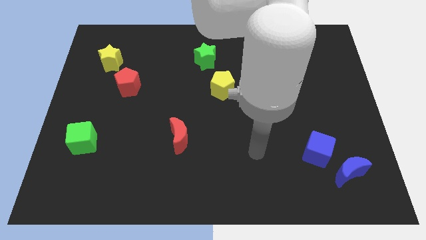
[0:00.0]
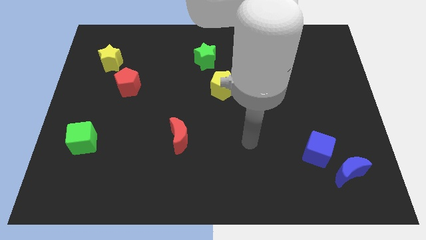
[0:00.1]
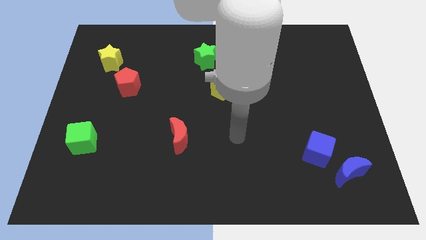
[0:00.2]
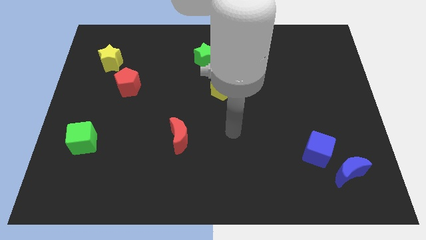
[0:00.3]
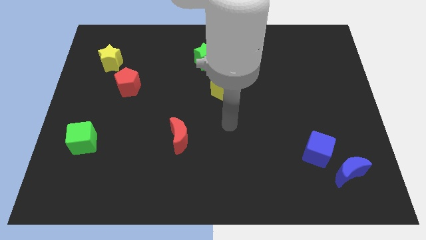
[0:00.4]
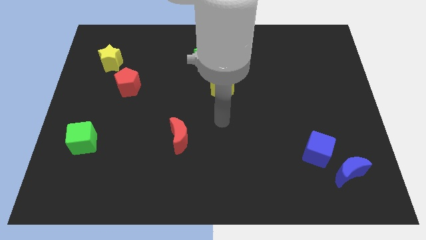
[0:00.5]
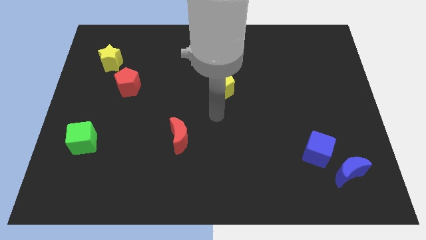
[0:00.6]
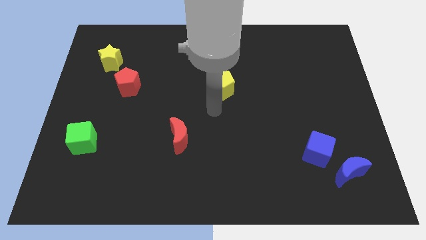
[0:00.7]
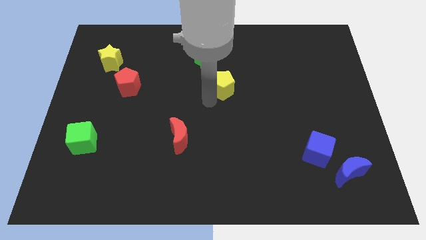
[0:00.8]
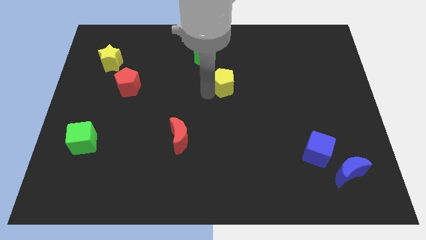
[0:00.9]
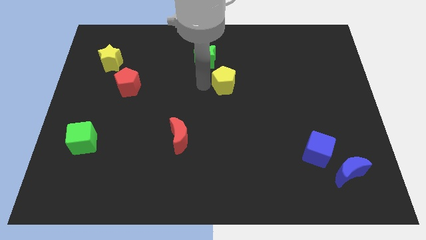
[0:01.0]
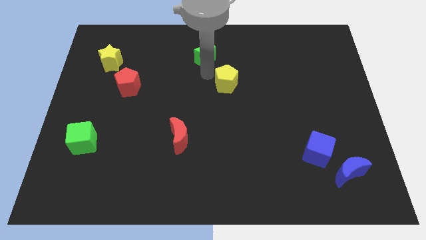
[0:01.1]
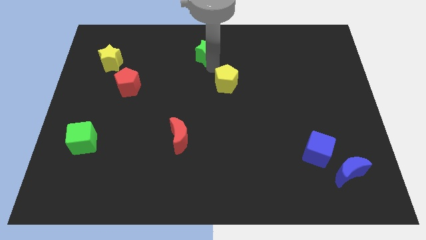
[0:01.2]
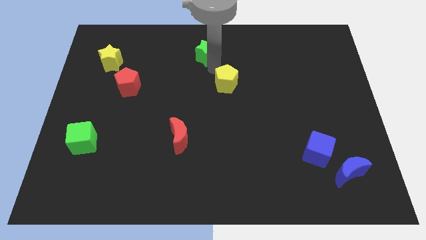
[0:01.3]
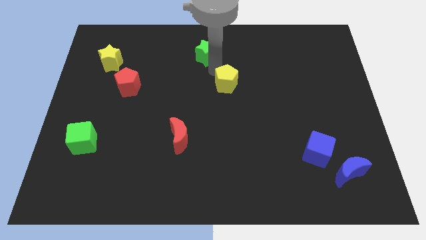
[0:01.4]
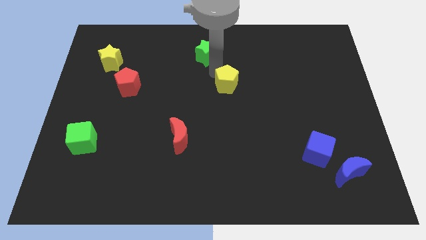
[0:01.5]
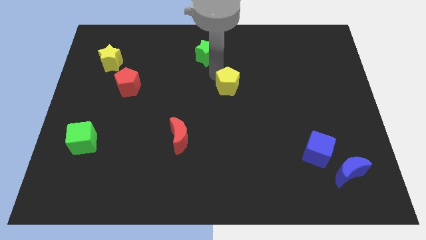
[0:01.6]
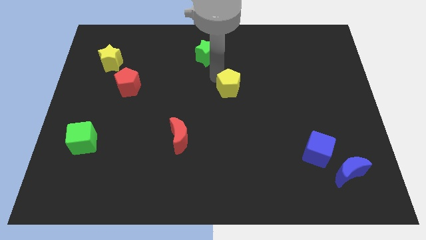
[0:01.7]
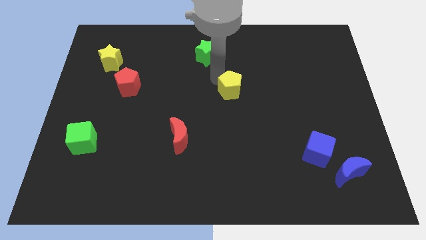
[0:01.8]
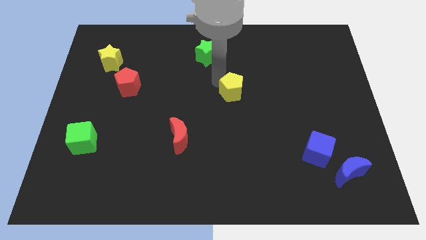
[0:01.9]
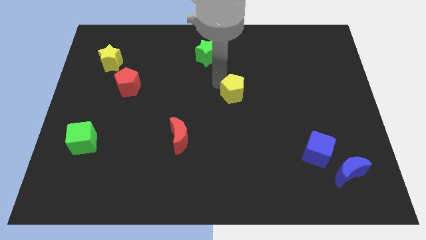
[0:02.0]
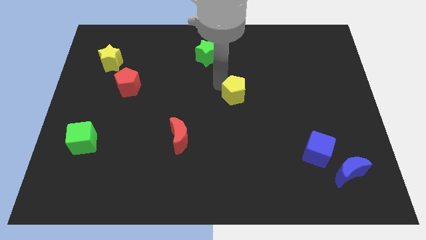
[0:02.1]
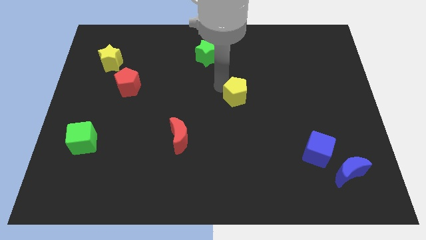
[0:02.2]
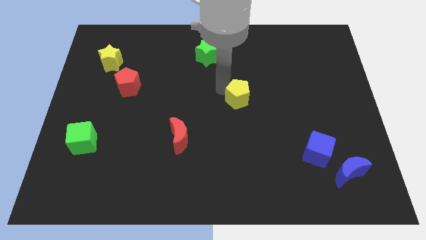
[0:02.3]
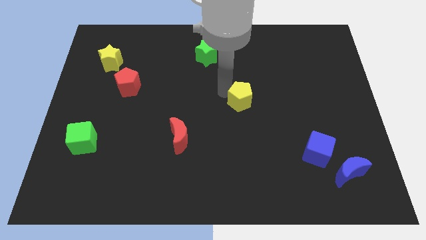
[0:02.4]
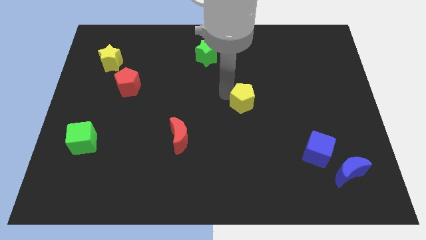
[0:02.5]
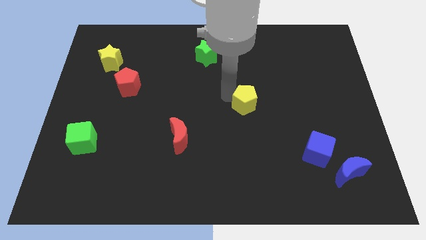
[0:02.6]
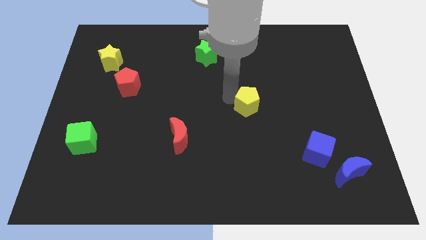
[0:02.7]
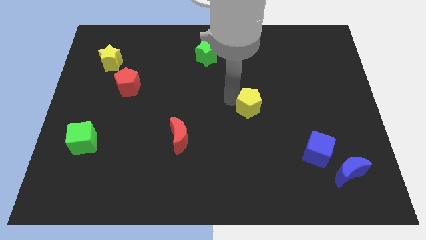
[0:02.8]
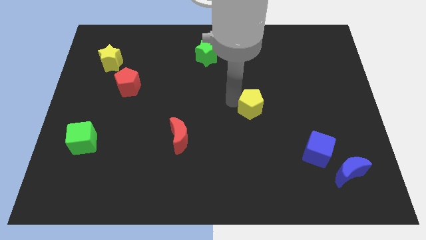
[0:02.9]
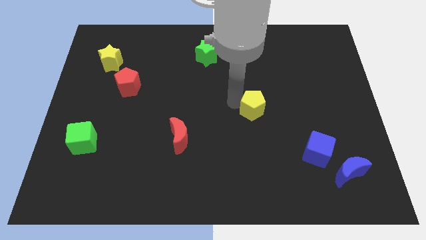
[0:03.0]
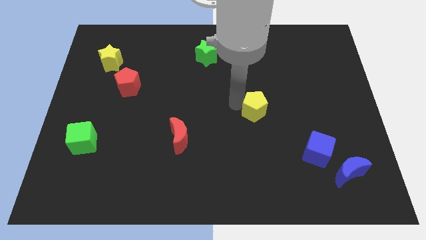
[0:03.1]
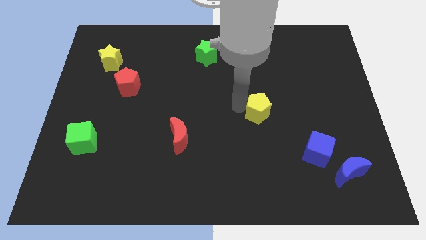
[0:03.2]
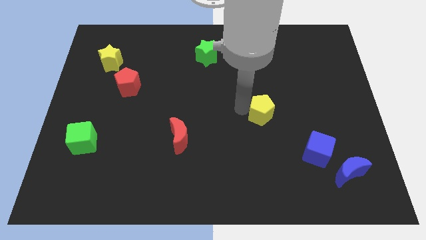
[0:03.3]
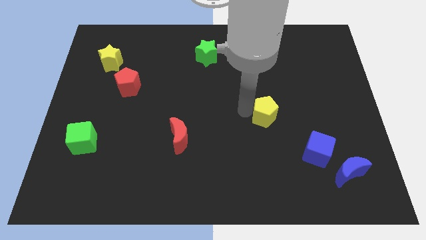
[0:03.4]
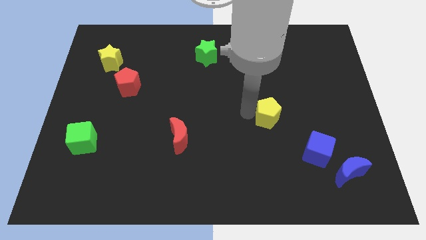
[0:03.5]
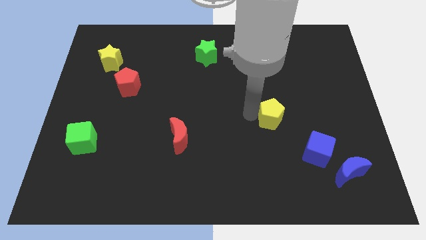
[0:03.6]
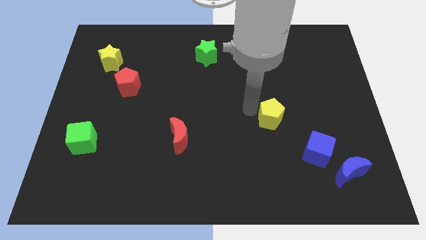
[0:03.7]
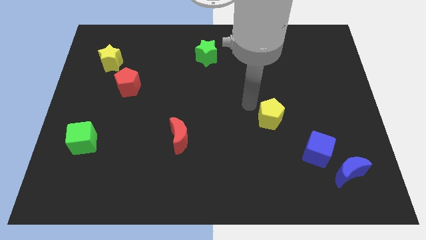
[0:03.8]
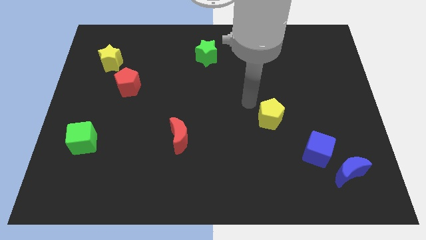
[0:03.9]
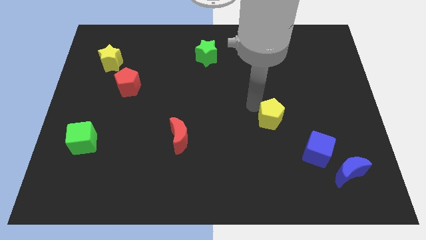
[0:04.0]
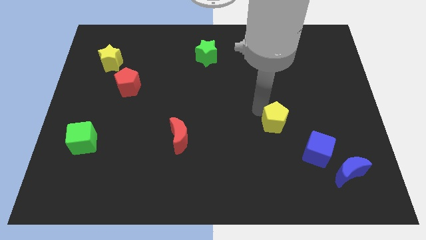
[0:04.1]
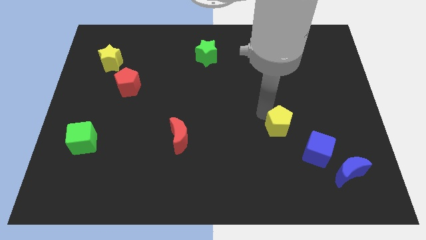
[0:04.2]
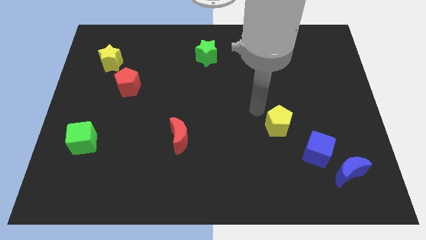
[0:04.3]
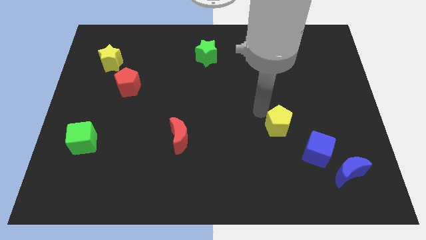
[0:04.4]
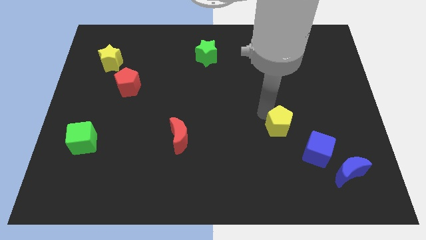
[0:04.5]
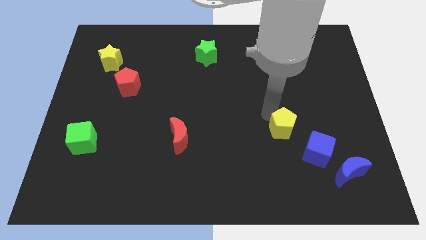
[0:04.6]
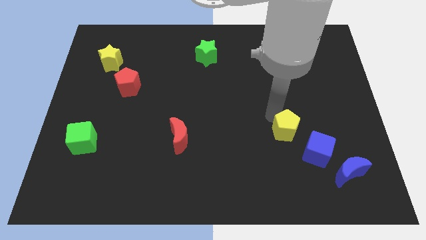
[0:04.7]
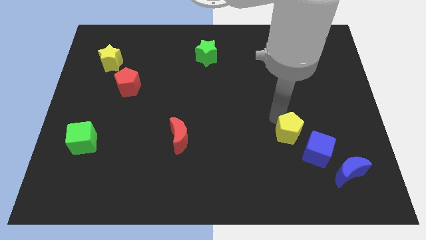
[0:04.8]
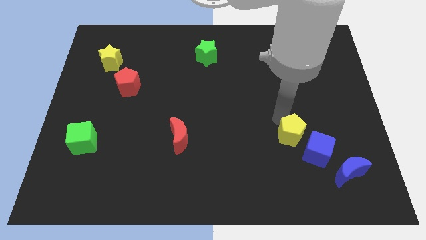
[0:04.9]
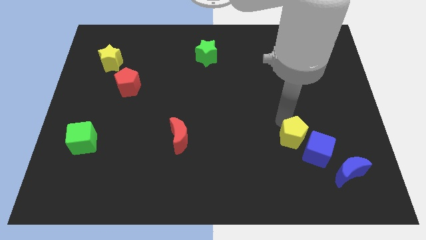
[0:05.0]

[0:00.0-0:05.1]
slide the yellow pentagon towards the blue cube

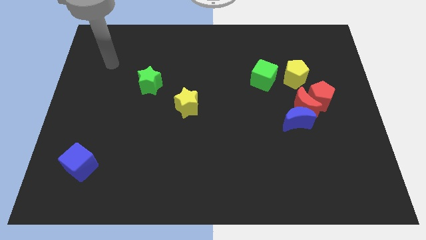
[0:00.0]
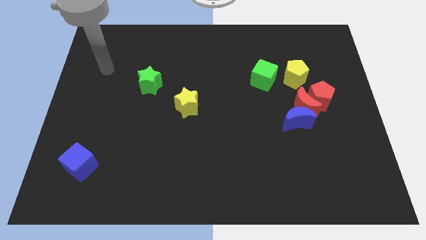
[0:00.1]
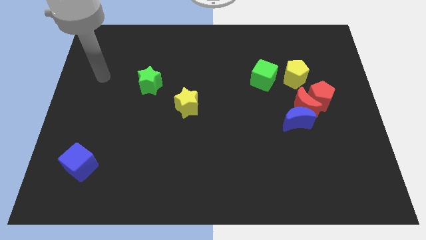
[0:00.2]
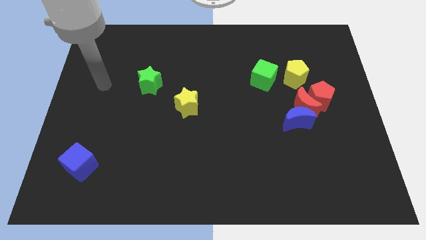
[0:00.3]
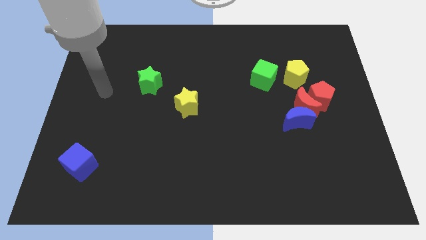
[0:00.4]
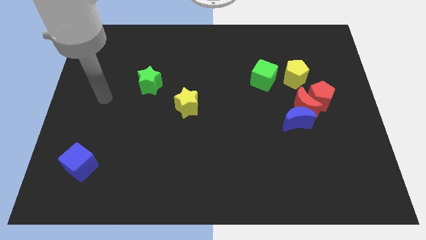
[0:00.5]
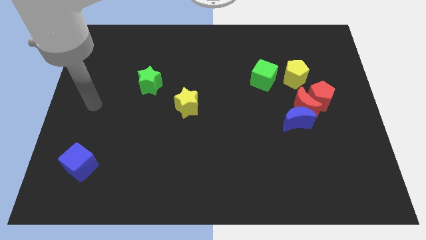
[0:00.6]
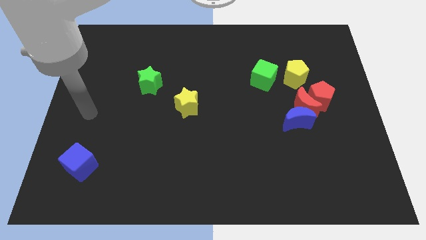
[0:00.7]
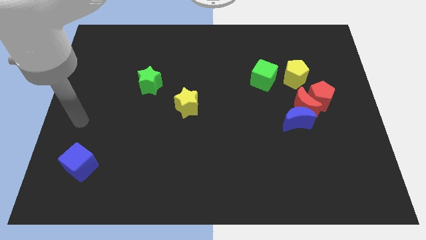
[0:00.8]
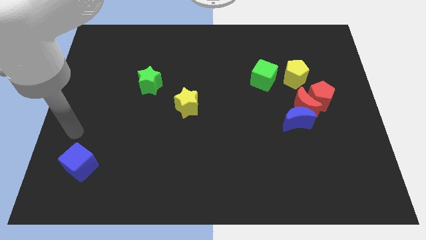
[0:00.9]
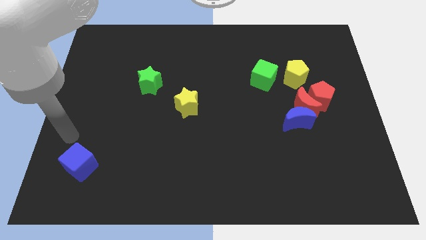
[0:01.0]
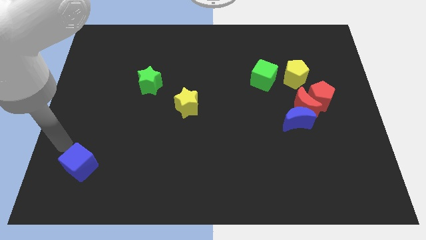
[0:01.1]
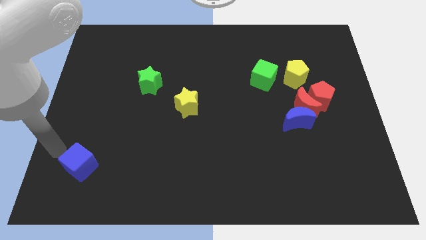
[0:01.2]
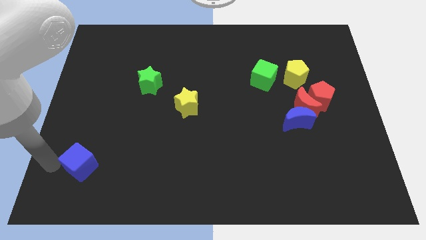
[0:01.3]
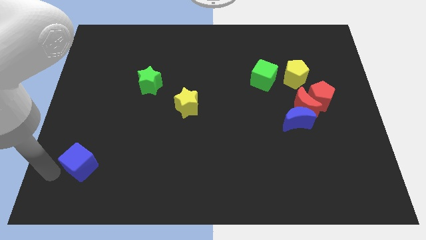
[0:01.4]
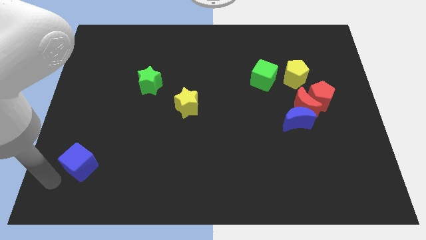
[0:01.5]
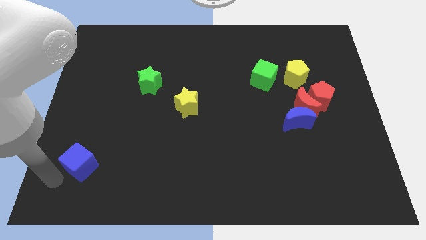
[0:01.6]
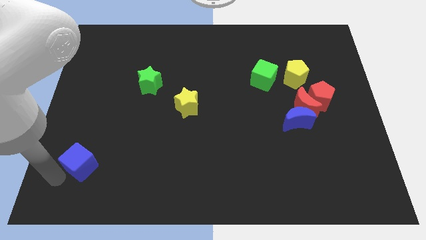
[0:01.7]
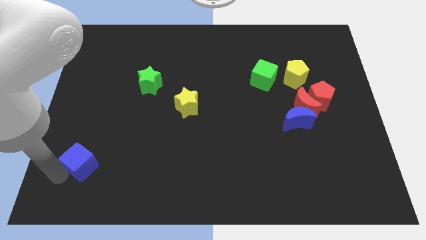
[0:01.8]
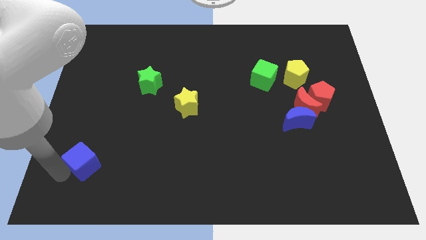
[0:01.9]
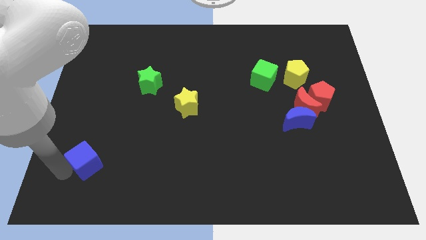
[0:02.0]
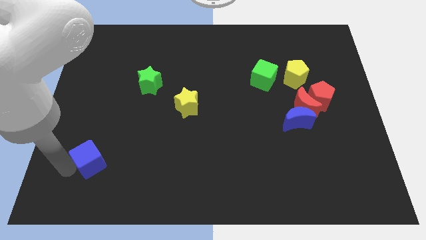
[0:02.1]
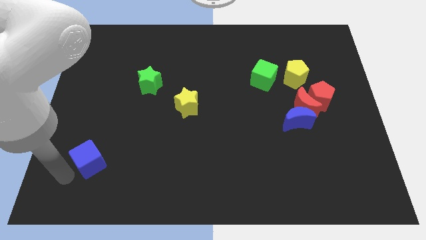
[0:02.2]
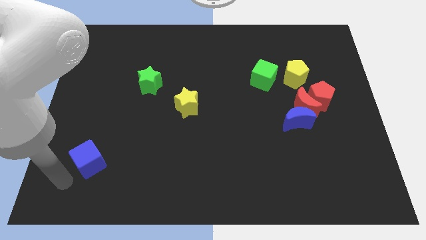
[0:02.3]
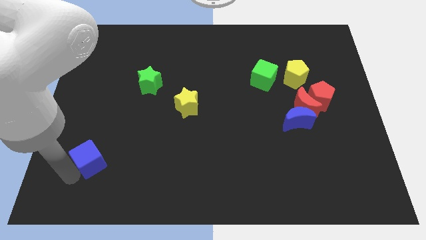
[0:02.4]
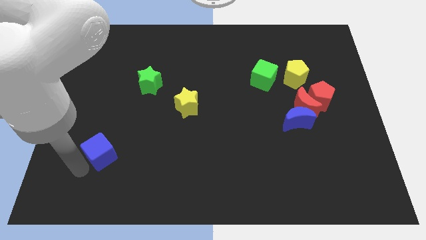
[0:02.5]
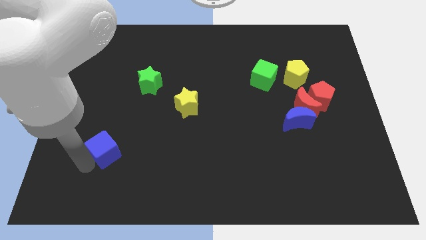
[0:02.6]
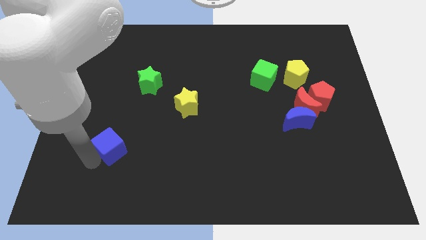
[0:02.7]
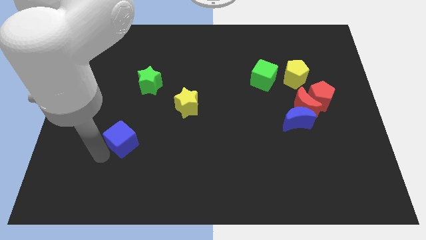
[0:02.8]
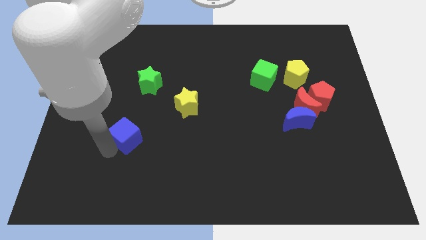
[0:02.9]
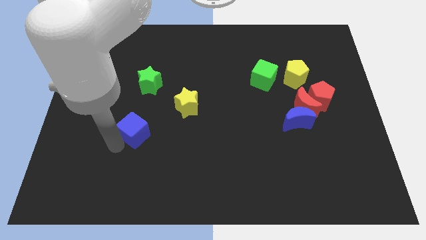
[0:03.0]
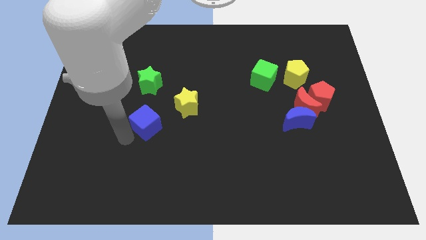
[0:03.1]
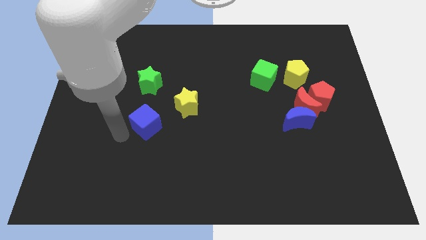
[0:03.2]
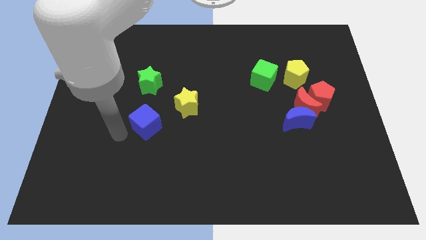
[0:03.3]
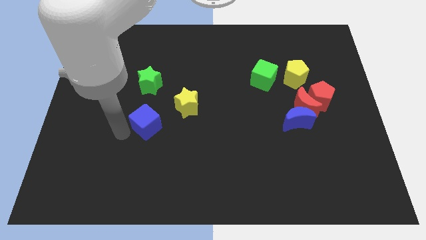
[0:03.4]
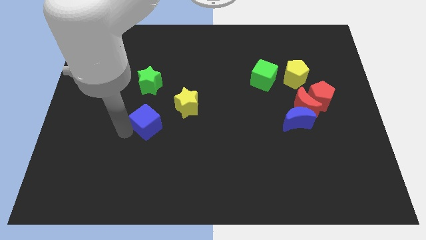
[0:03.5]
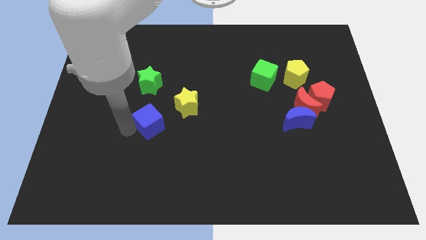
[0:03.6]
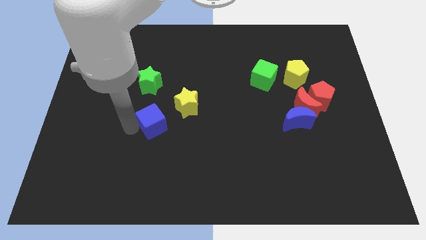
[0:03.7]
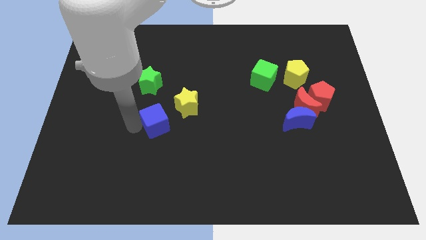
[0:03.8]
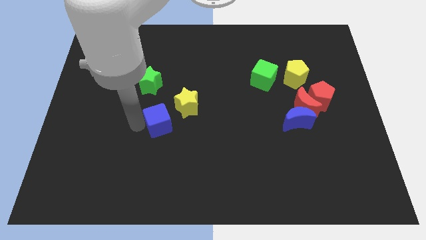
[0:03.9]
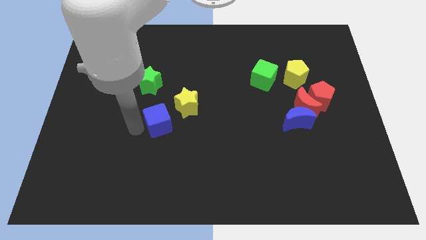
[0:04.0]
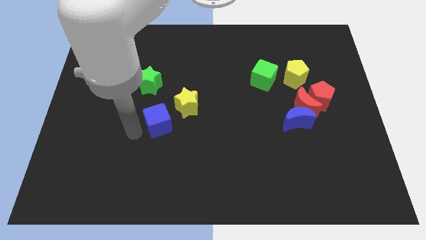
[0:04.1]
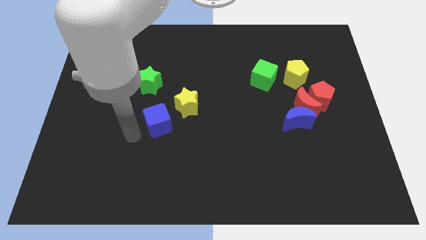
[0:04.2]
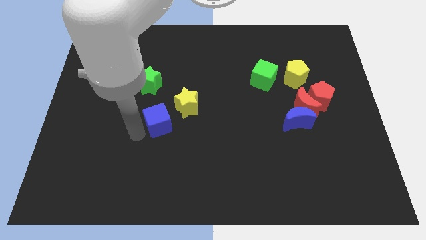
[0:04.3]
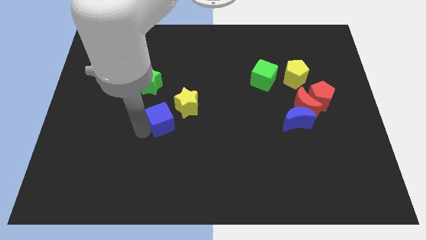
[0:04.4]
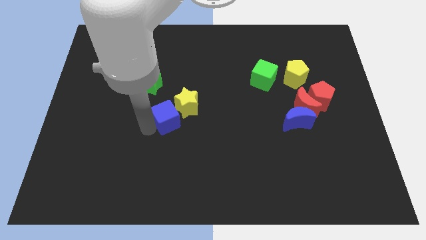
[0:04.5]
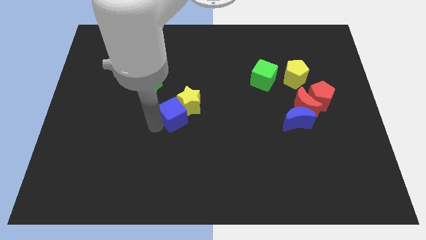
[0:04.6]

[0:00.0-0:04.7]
push the blue cube close to the yellow star
